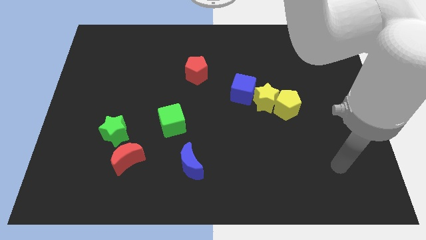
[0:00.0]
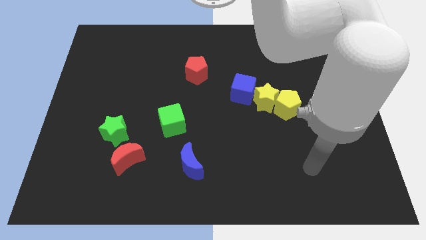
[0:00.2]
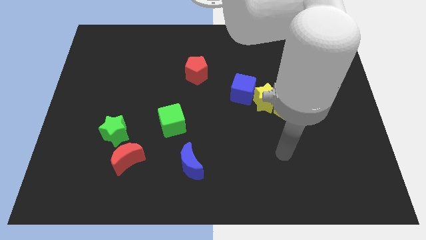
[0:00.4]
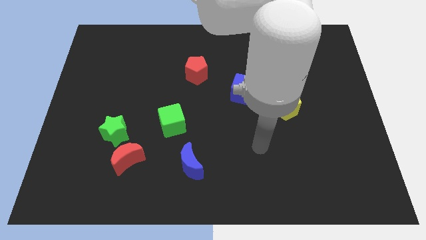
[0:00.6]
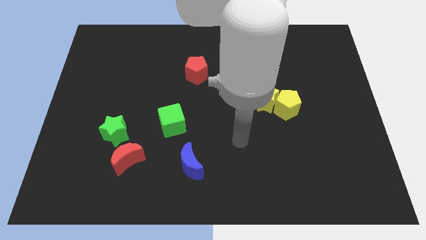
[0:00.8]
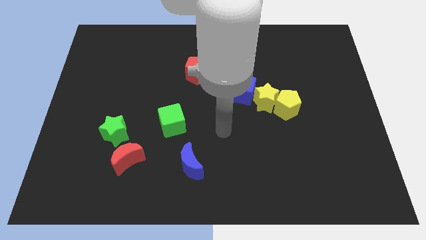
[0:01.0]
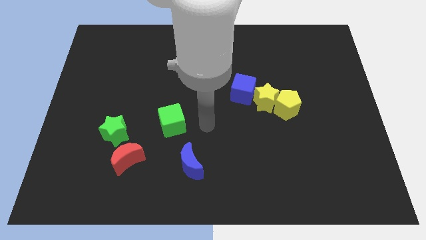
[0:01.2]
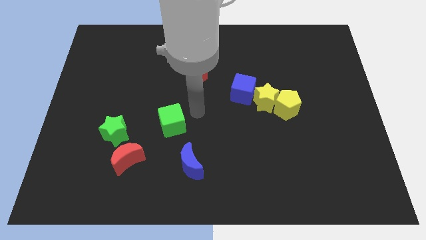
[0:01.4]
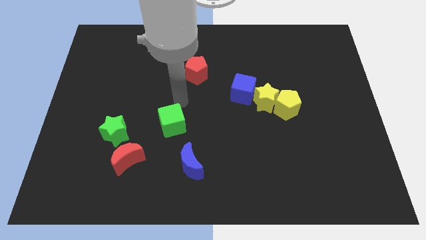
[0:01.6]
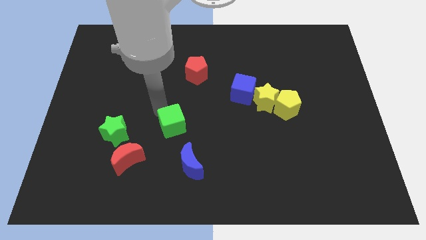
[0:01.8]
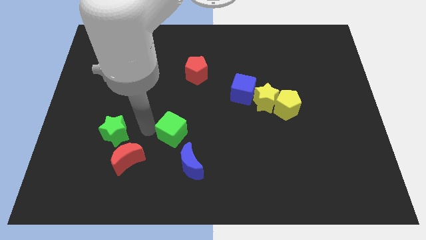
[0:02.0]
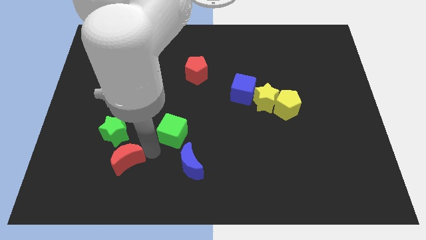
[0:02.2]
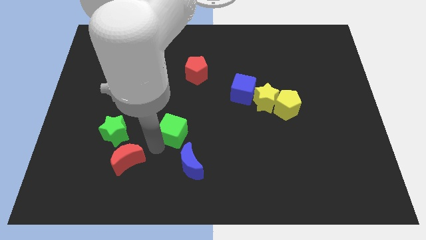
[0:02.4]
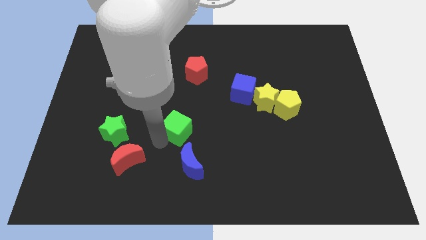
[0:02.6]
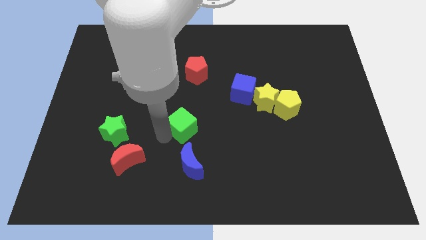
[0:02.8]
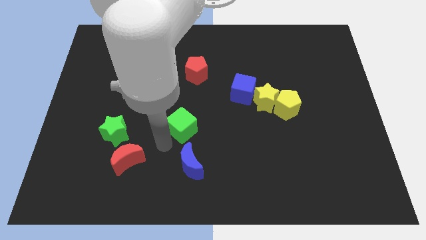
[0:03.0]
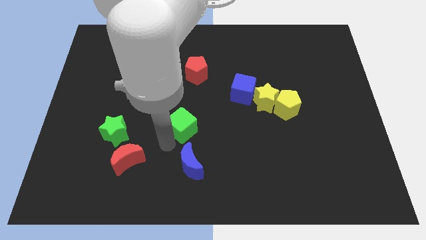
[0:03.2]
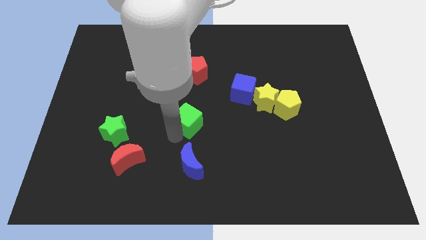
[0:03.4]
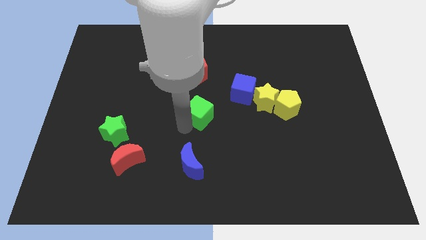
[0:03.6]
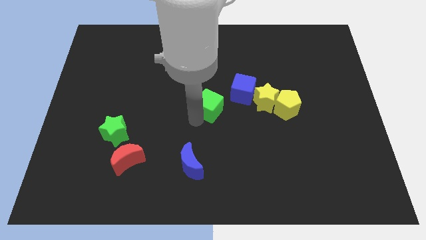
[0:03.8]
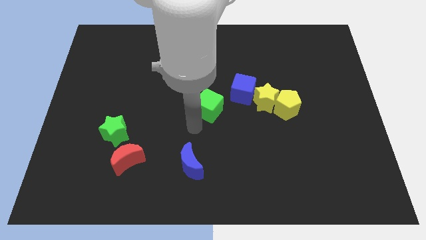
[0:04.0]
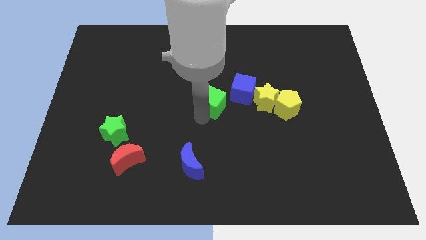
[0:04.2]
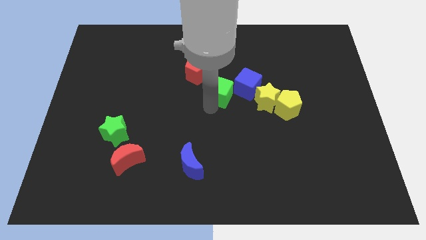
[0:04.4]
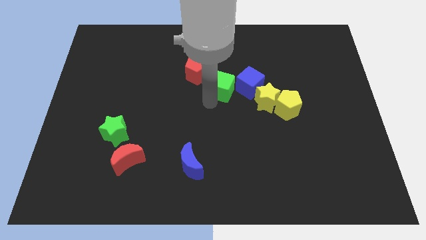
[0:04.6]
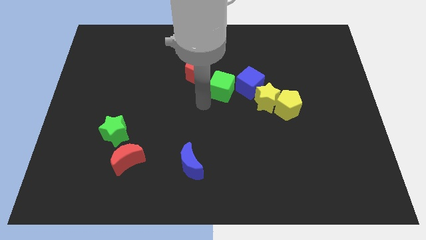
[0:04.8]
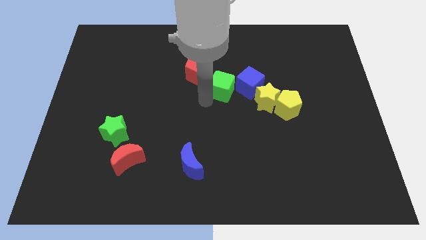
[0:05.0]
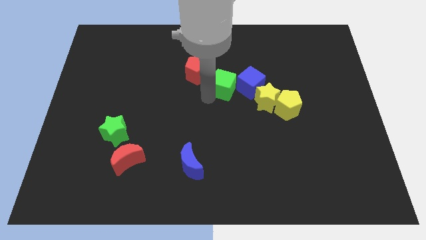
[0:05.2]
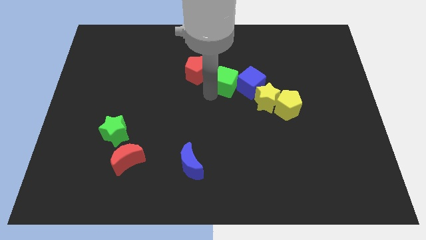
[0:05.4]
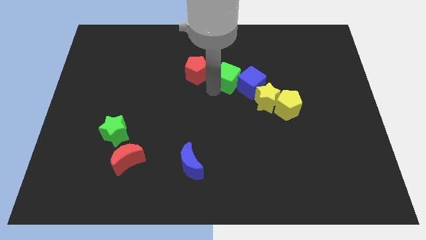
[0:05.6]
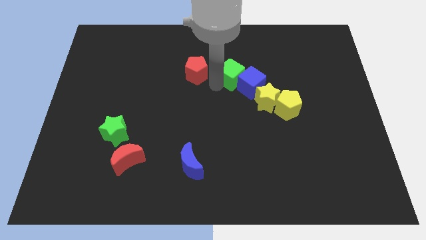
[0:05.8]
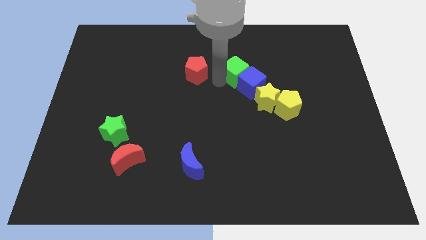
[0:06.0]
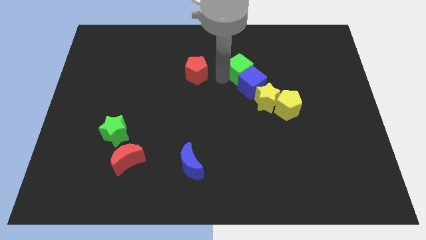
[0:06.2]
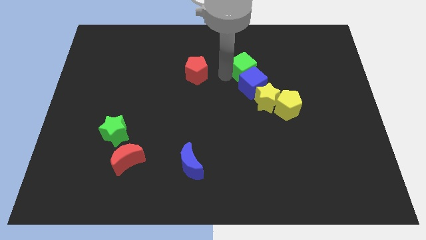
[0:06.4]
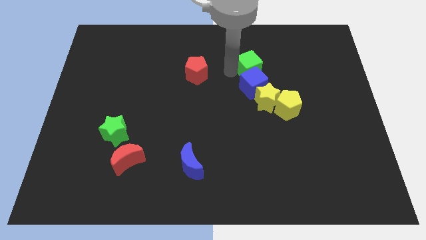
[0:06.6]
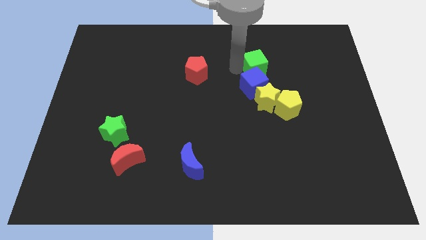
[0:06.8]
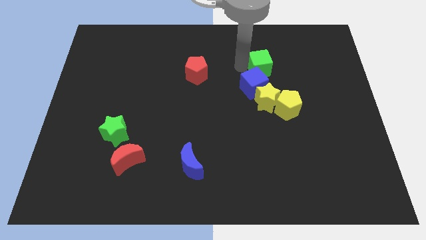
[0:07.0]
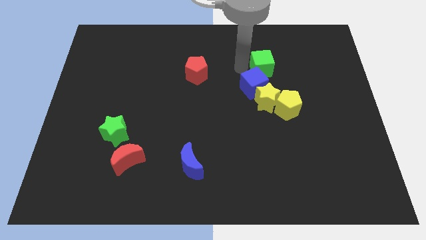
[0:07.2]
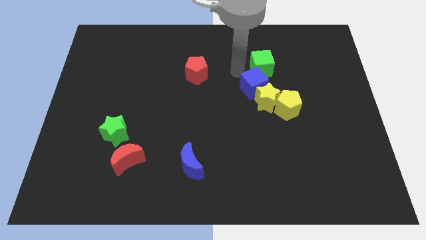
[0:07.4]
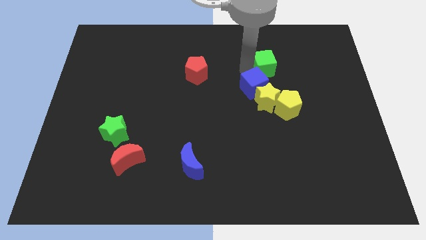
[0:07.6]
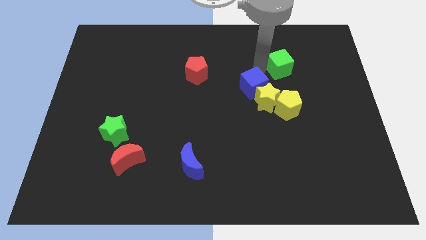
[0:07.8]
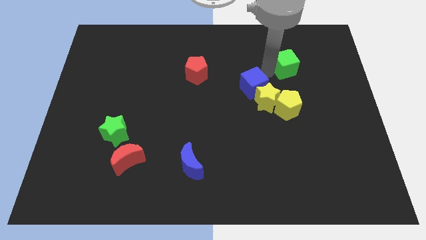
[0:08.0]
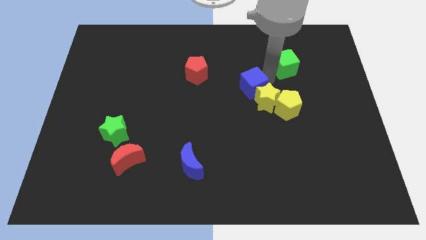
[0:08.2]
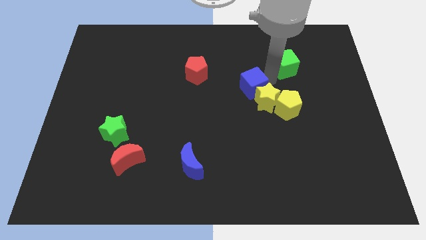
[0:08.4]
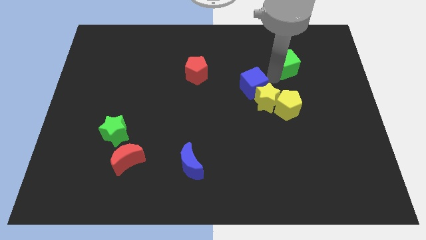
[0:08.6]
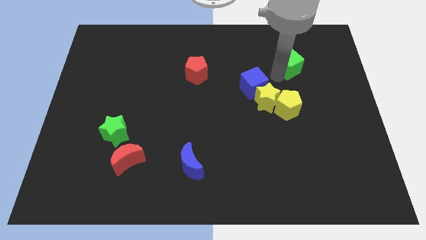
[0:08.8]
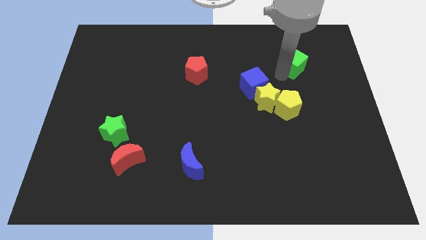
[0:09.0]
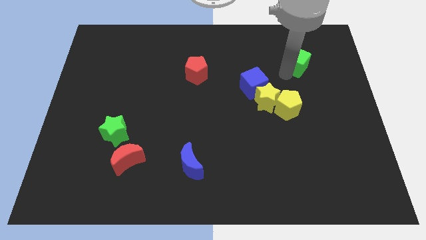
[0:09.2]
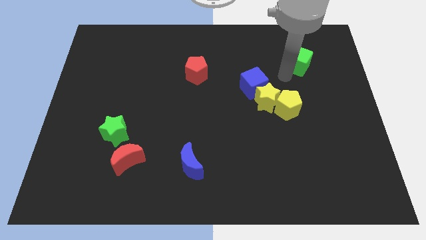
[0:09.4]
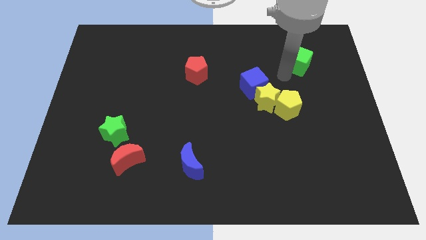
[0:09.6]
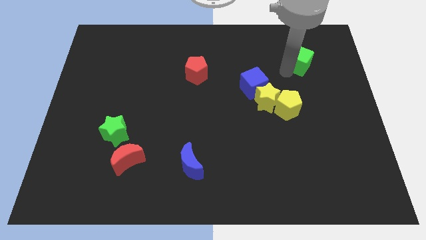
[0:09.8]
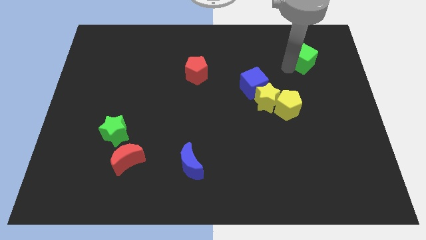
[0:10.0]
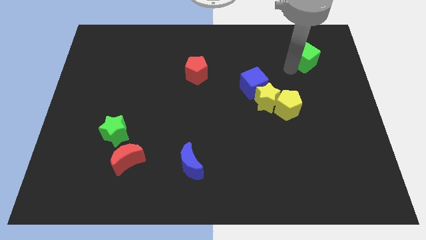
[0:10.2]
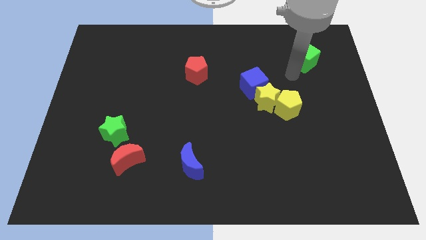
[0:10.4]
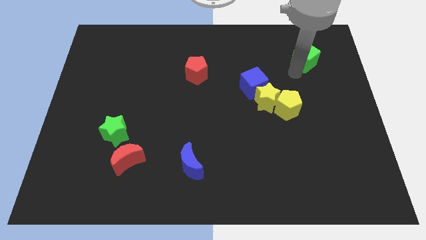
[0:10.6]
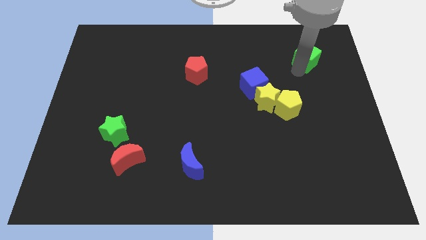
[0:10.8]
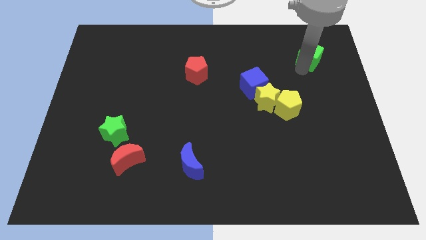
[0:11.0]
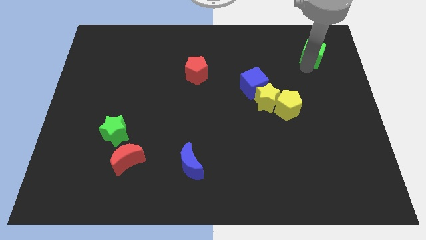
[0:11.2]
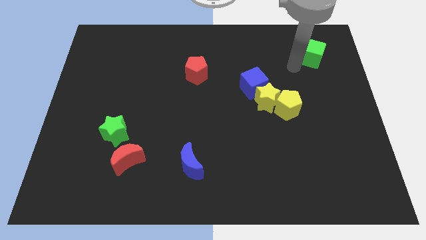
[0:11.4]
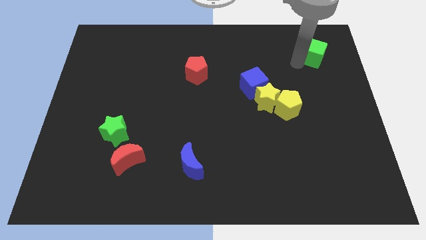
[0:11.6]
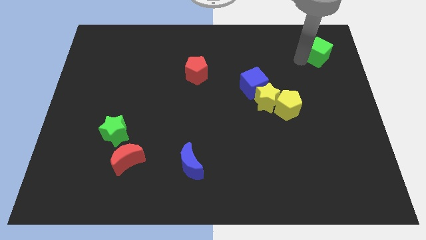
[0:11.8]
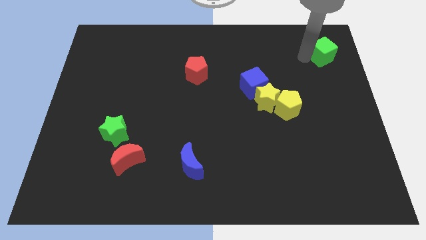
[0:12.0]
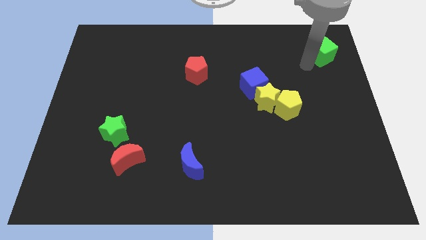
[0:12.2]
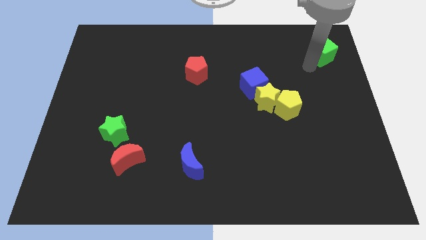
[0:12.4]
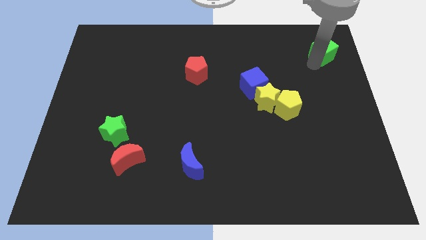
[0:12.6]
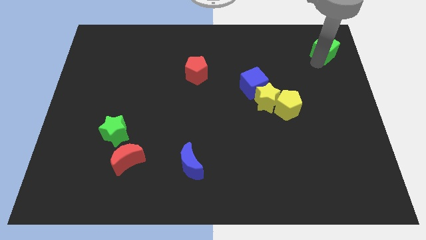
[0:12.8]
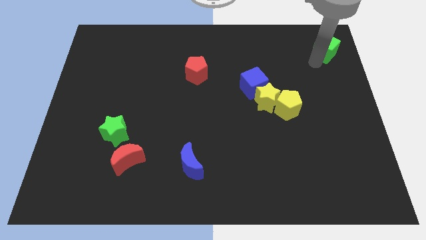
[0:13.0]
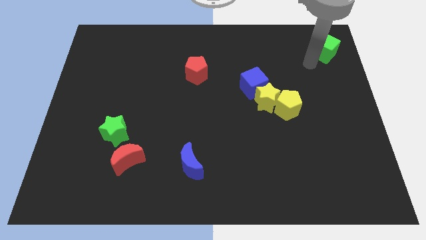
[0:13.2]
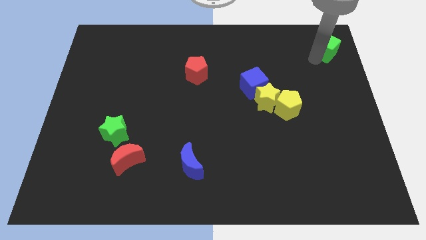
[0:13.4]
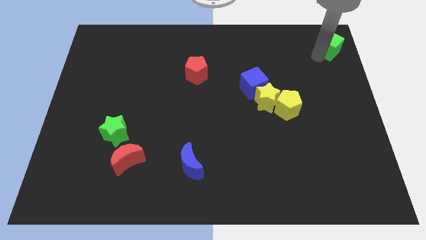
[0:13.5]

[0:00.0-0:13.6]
slide the green cube to the top right of the board

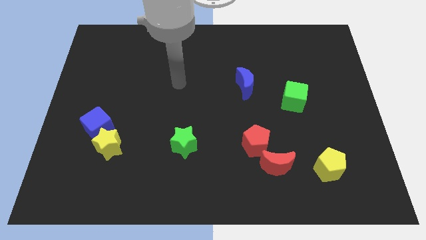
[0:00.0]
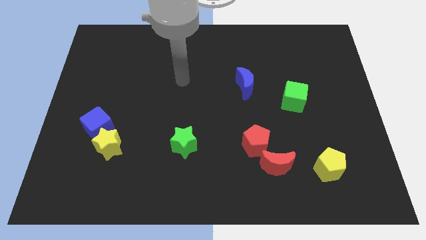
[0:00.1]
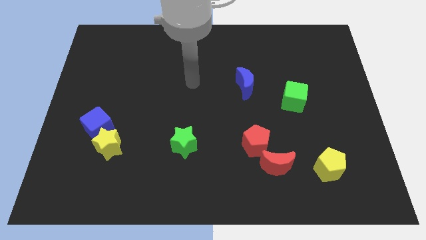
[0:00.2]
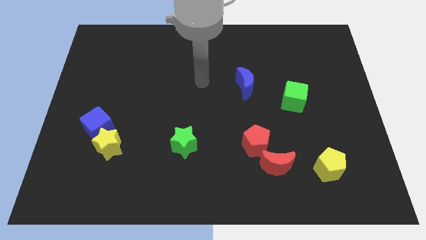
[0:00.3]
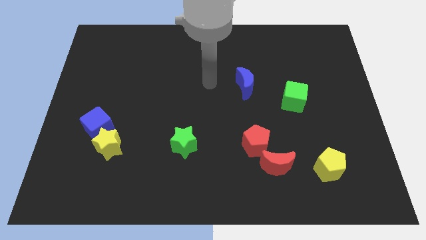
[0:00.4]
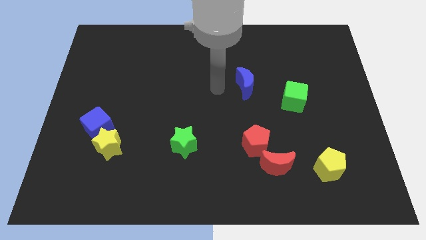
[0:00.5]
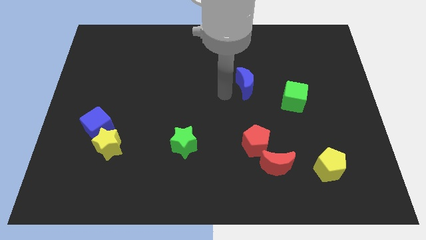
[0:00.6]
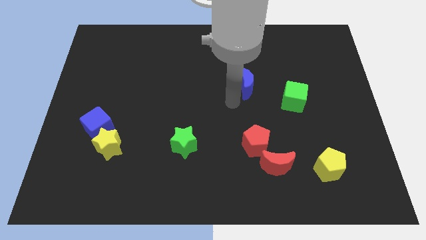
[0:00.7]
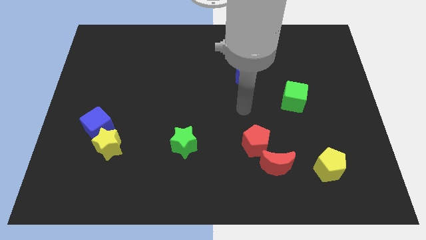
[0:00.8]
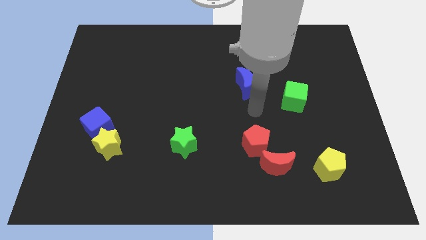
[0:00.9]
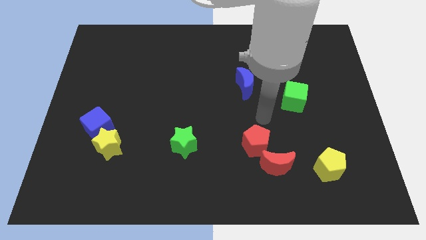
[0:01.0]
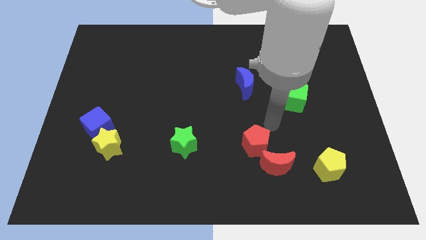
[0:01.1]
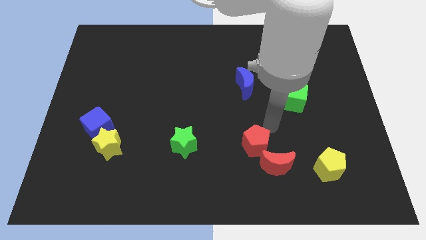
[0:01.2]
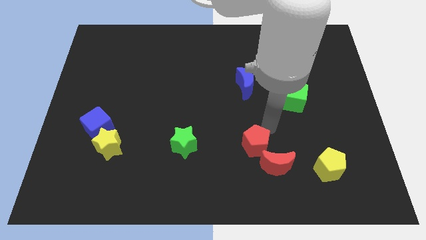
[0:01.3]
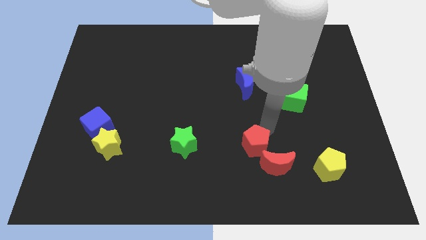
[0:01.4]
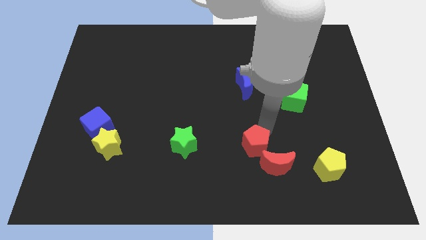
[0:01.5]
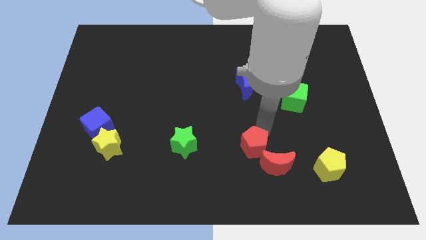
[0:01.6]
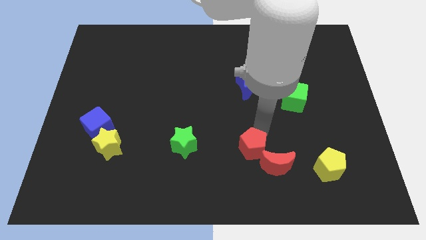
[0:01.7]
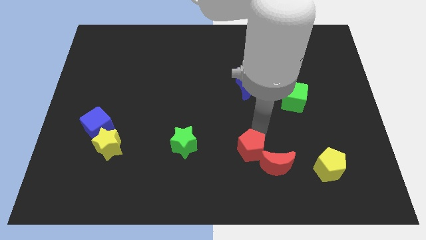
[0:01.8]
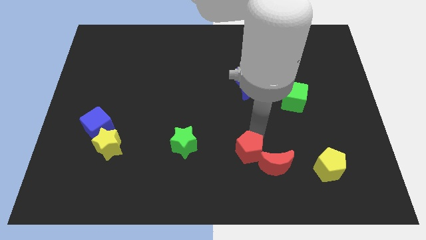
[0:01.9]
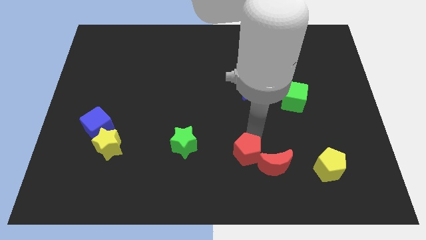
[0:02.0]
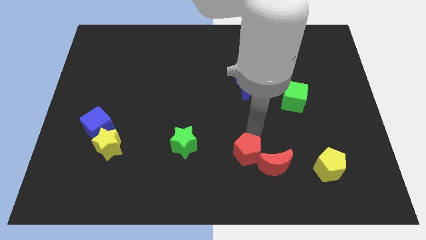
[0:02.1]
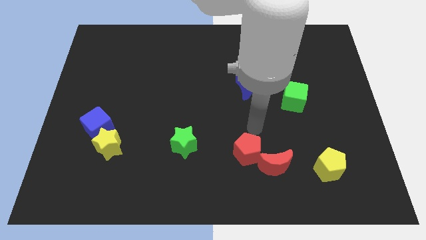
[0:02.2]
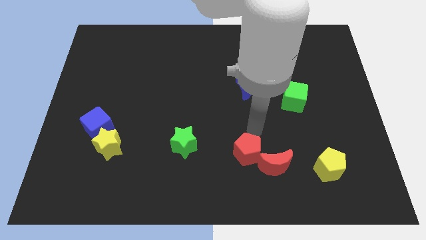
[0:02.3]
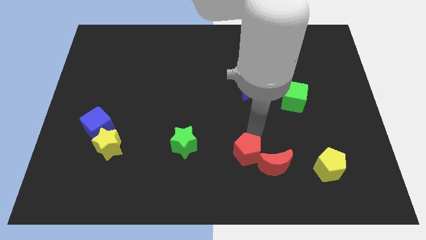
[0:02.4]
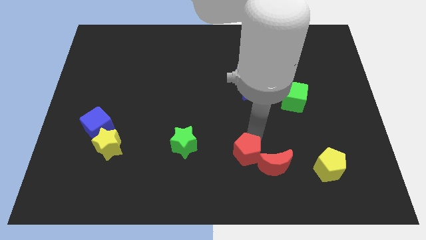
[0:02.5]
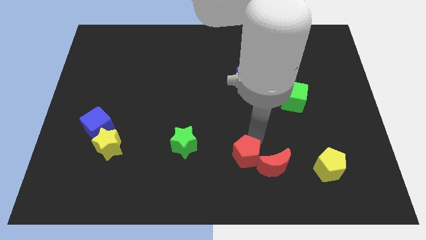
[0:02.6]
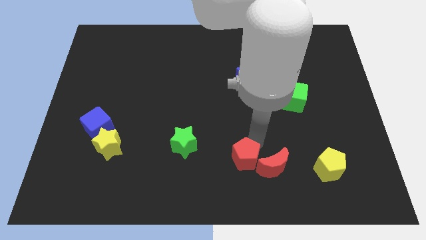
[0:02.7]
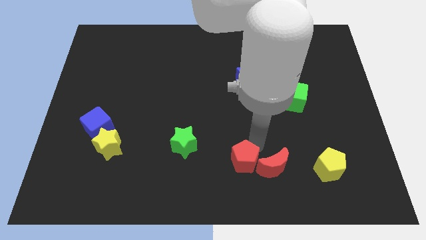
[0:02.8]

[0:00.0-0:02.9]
slide the red pentagon to the bottom
